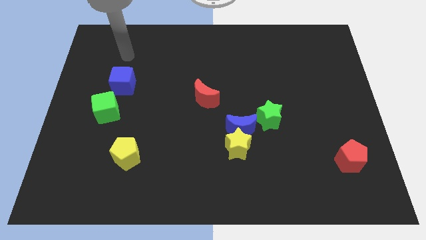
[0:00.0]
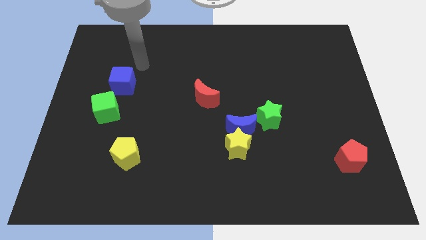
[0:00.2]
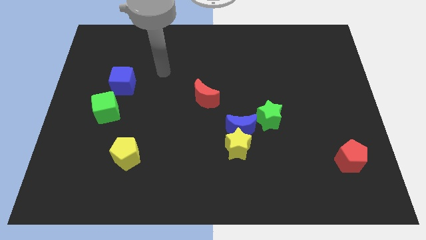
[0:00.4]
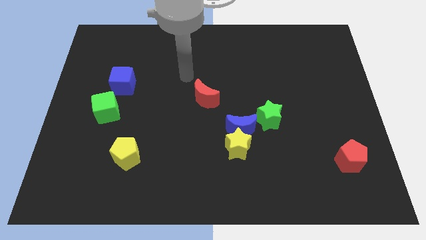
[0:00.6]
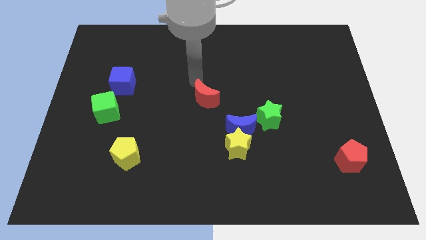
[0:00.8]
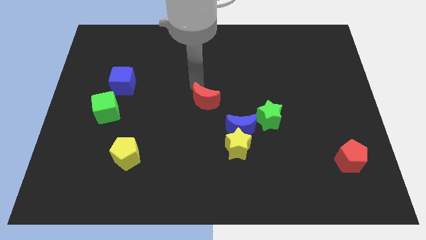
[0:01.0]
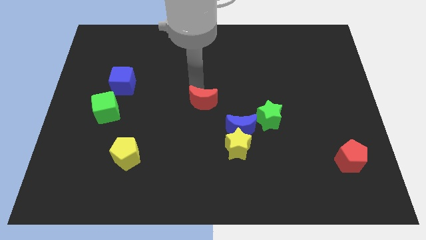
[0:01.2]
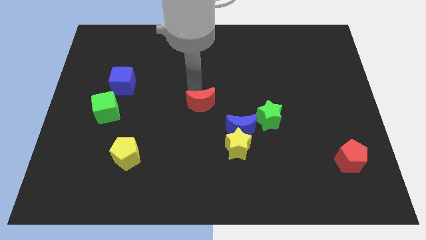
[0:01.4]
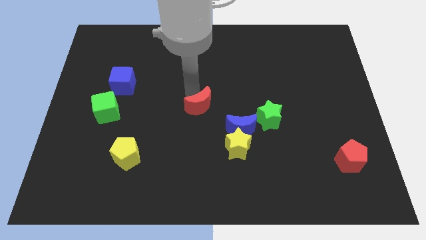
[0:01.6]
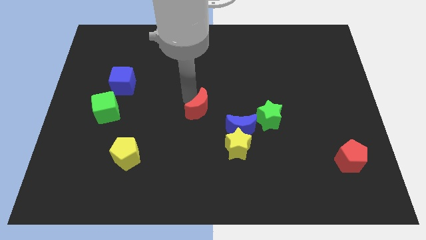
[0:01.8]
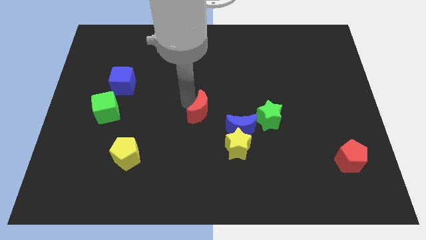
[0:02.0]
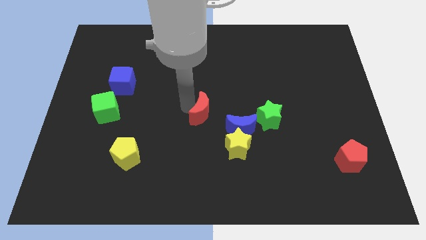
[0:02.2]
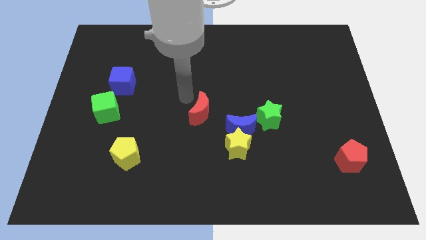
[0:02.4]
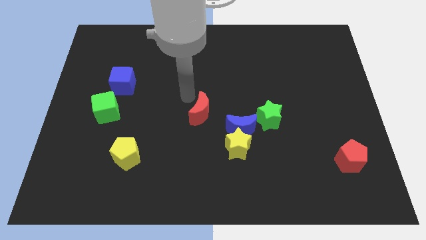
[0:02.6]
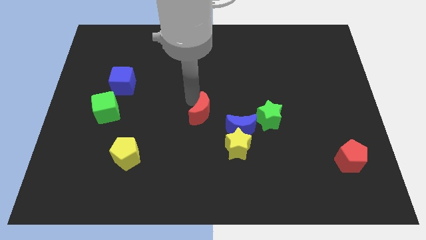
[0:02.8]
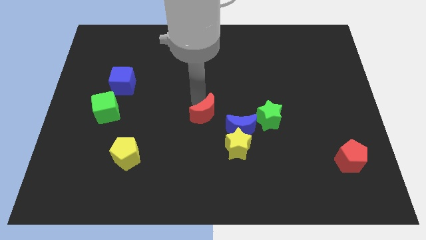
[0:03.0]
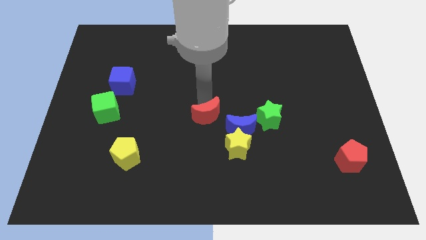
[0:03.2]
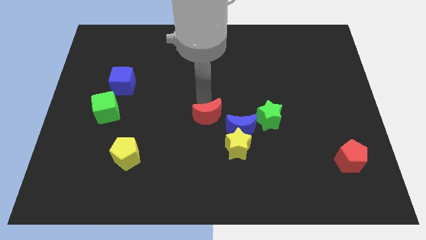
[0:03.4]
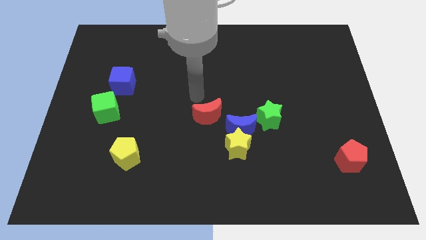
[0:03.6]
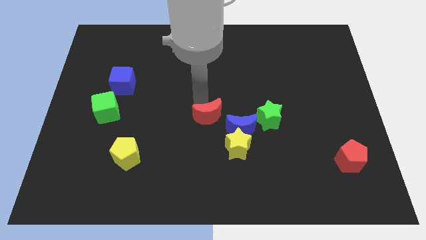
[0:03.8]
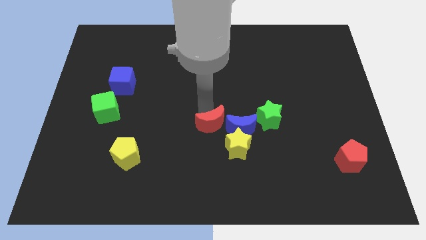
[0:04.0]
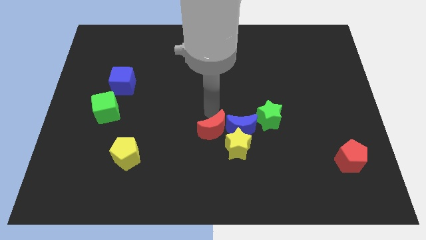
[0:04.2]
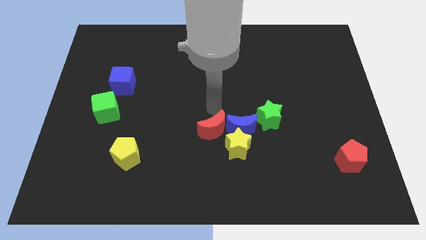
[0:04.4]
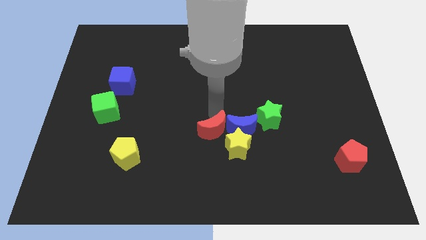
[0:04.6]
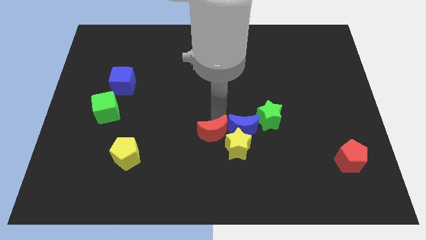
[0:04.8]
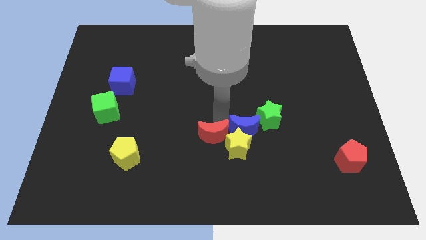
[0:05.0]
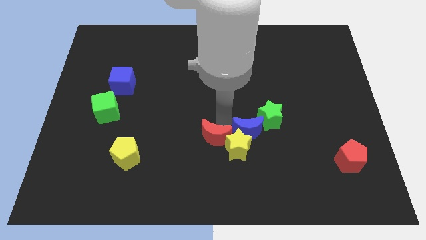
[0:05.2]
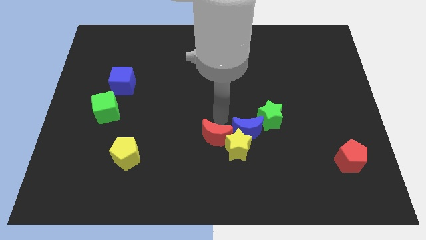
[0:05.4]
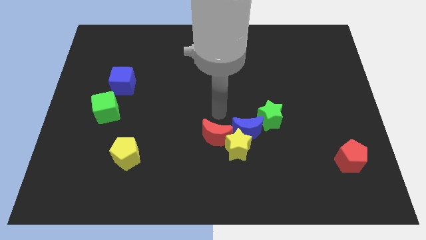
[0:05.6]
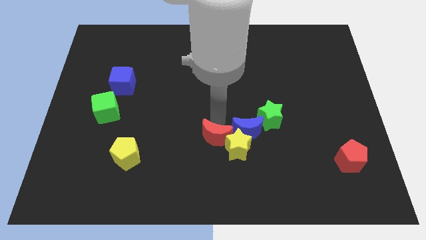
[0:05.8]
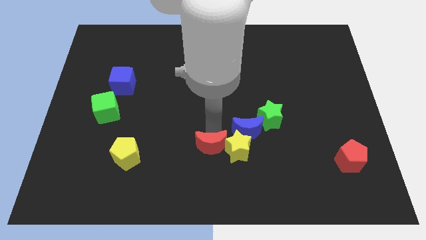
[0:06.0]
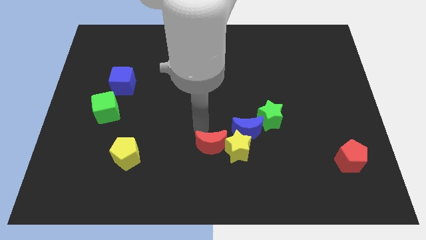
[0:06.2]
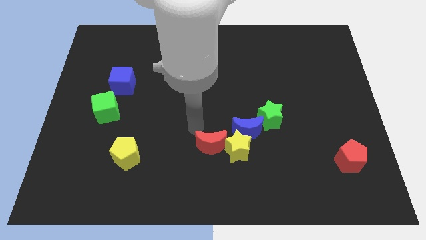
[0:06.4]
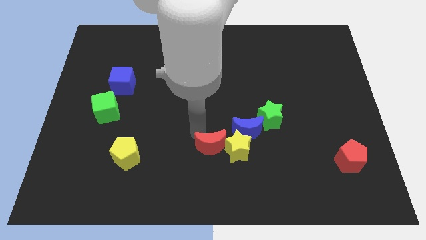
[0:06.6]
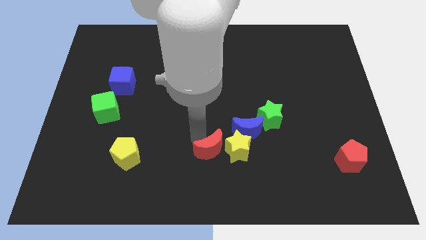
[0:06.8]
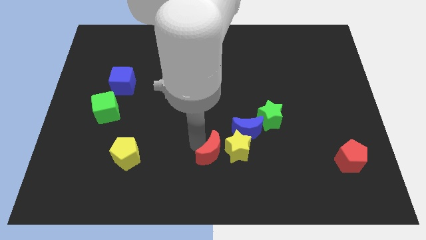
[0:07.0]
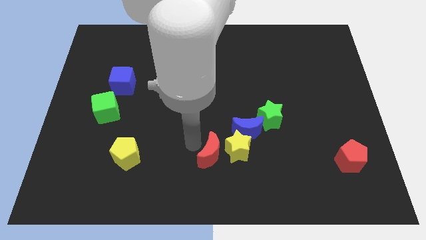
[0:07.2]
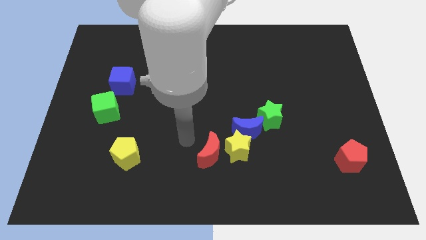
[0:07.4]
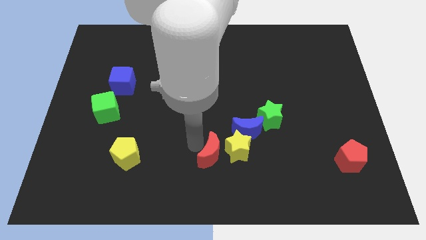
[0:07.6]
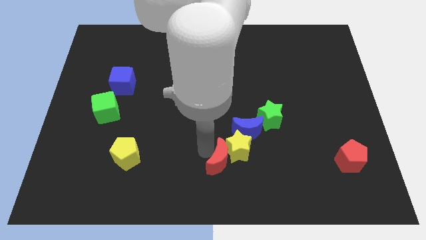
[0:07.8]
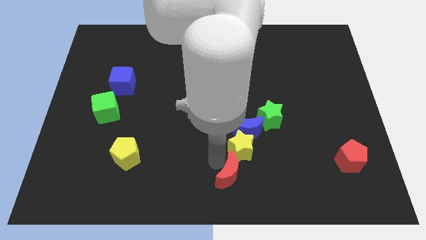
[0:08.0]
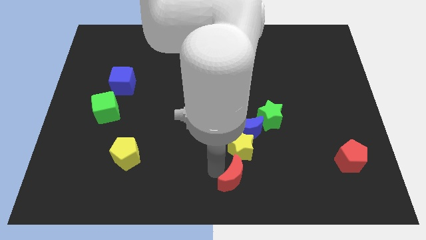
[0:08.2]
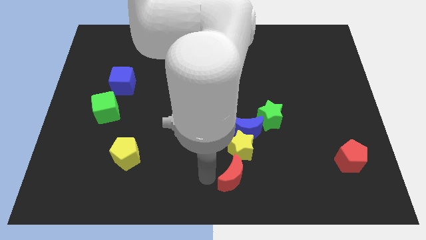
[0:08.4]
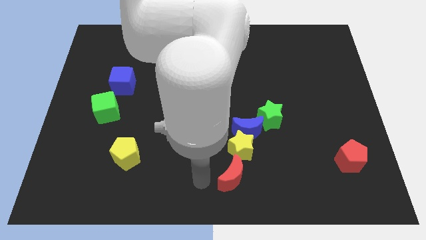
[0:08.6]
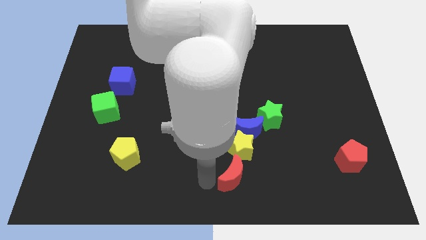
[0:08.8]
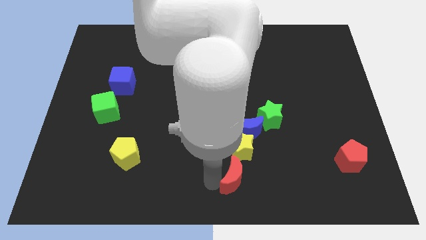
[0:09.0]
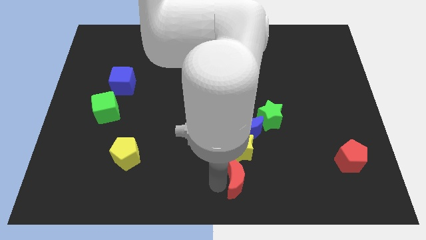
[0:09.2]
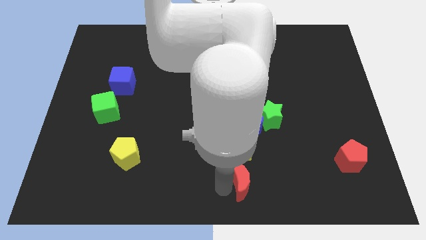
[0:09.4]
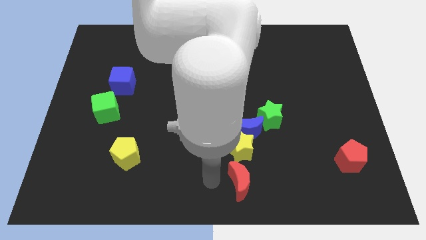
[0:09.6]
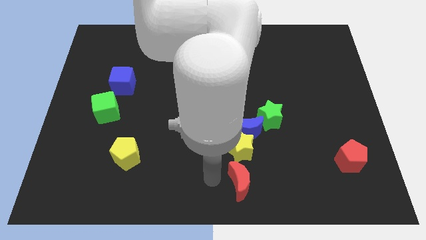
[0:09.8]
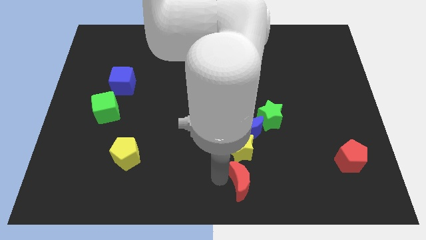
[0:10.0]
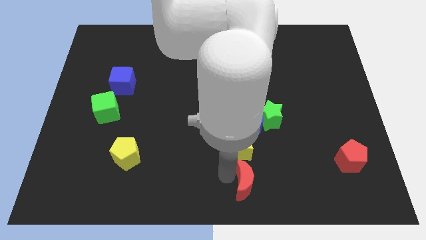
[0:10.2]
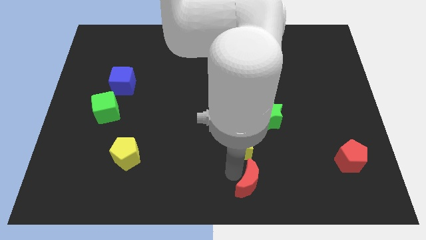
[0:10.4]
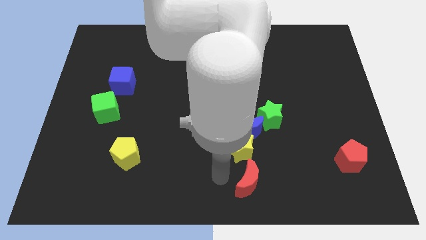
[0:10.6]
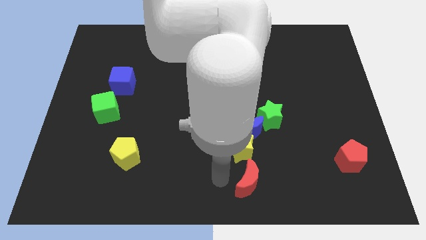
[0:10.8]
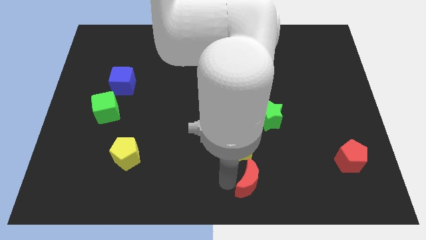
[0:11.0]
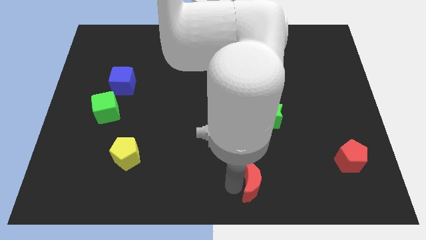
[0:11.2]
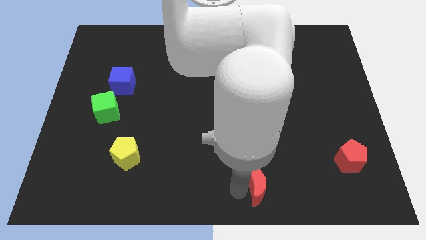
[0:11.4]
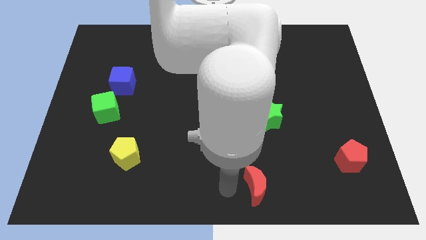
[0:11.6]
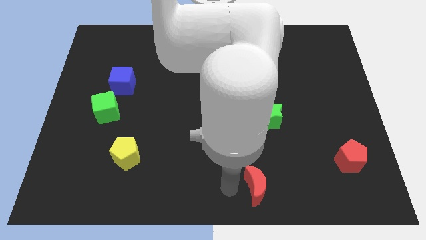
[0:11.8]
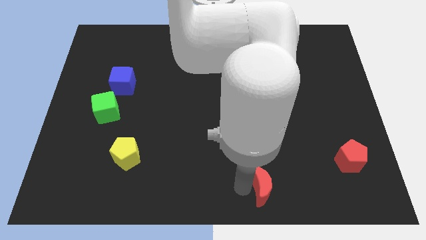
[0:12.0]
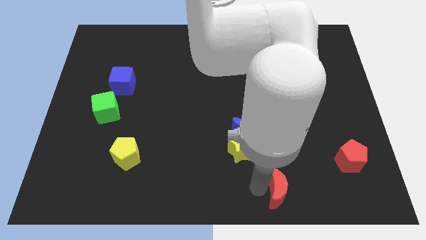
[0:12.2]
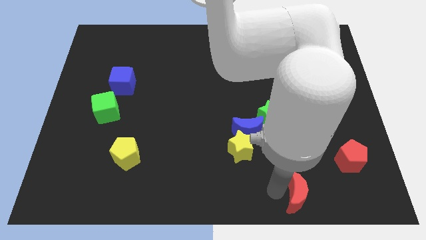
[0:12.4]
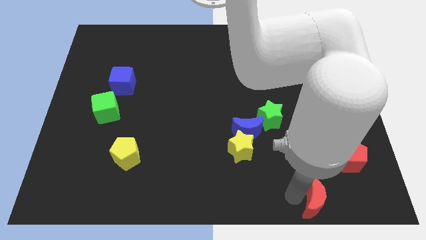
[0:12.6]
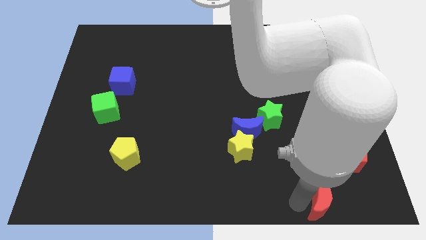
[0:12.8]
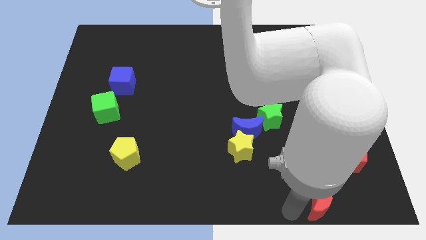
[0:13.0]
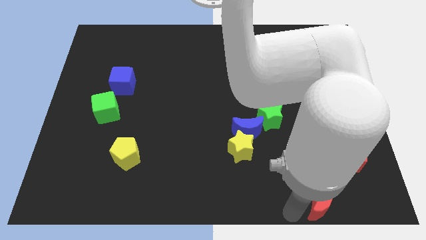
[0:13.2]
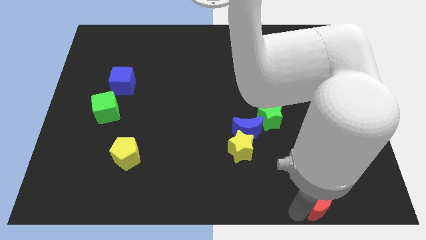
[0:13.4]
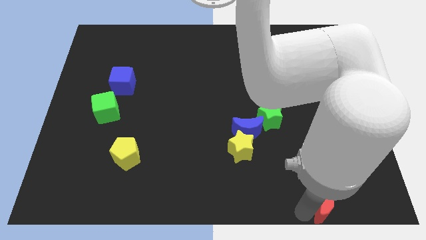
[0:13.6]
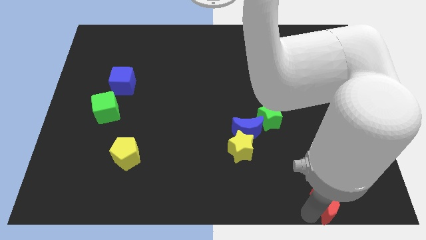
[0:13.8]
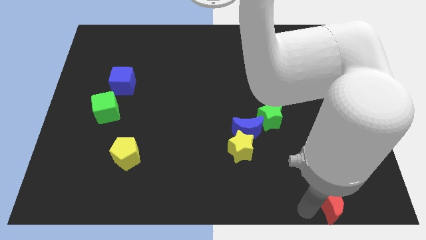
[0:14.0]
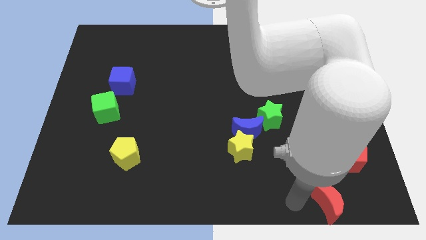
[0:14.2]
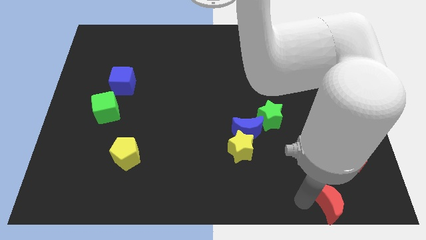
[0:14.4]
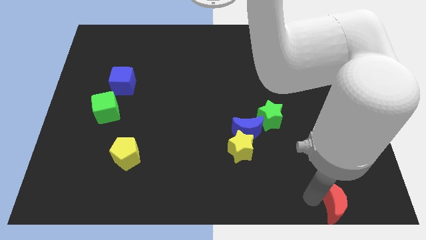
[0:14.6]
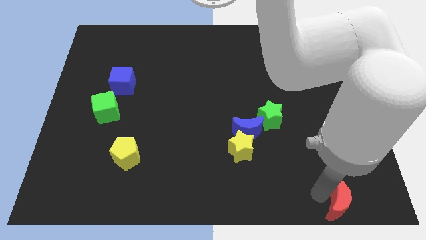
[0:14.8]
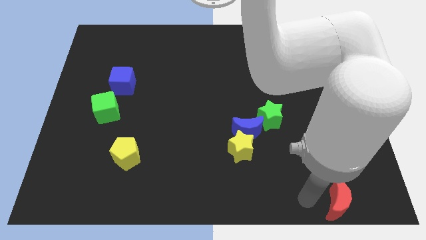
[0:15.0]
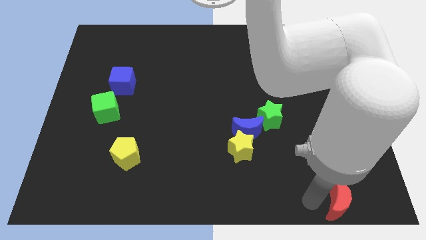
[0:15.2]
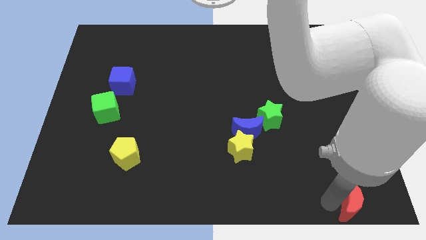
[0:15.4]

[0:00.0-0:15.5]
push the red moon to the bottom right corner
